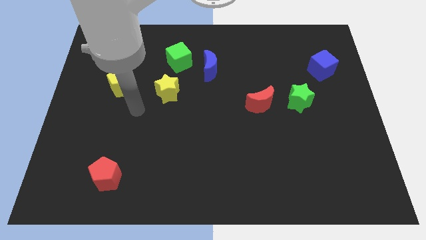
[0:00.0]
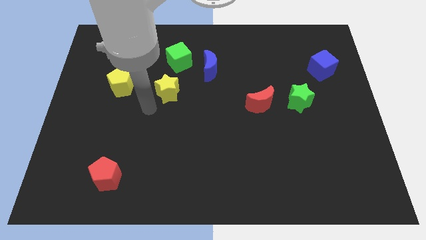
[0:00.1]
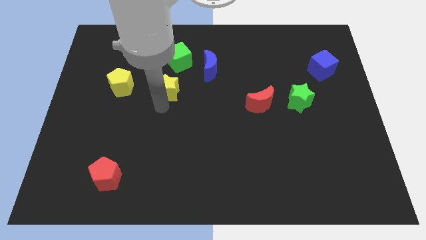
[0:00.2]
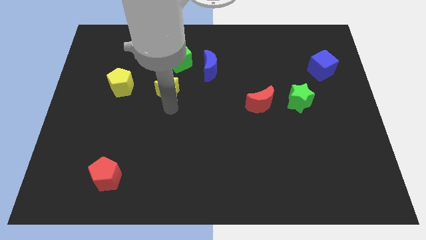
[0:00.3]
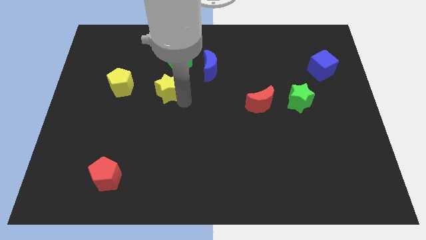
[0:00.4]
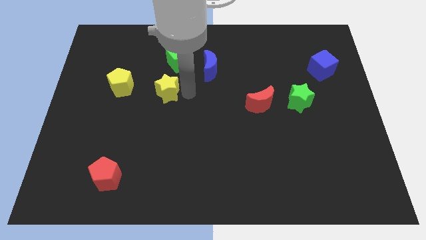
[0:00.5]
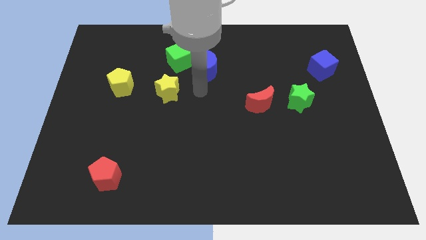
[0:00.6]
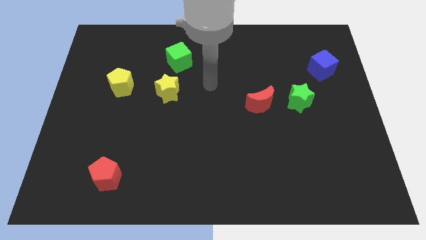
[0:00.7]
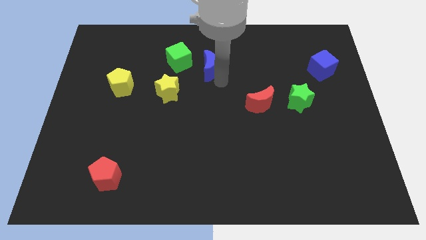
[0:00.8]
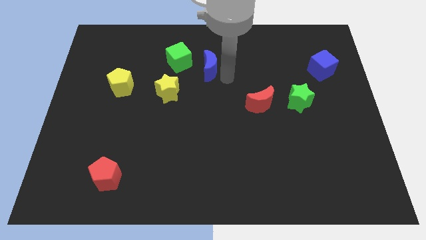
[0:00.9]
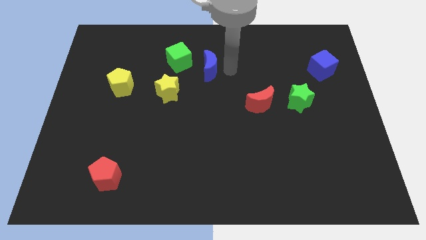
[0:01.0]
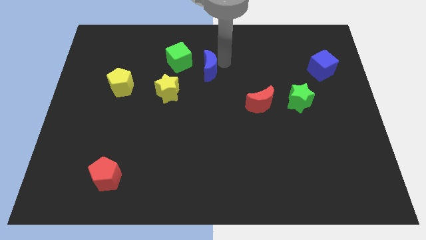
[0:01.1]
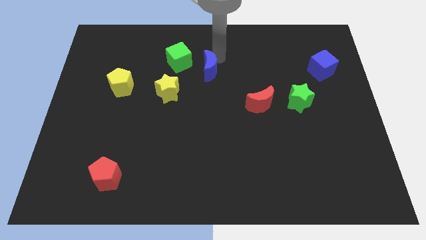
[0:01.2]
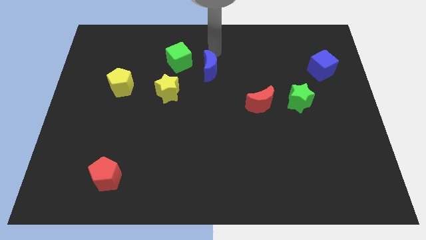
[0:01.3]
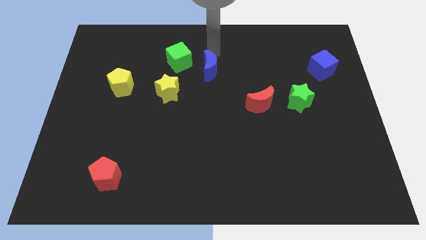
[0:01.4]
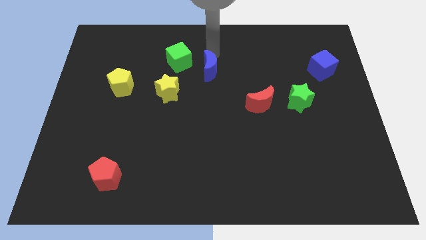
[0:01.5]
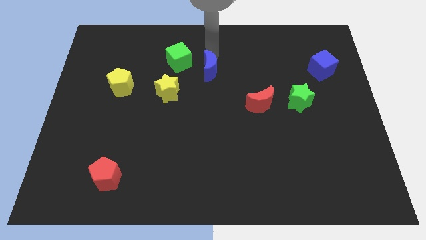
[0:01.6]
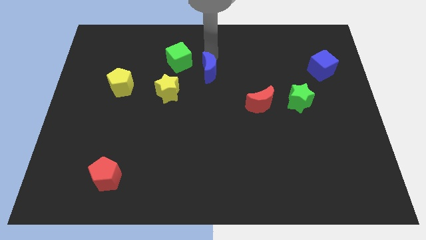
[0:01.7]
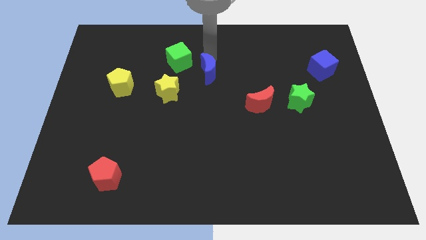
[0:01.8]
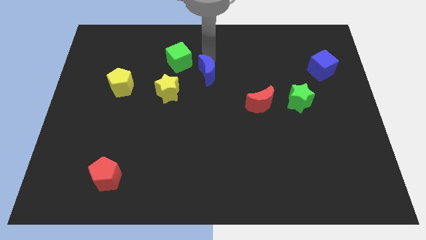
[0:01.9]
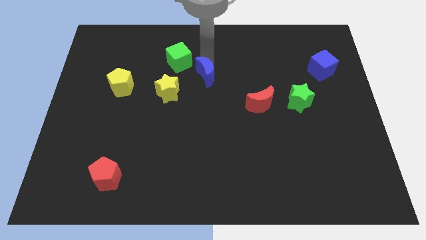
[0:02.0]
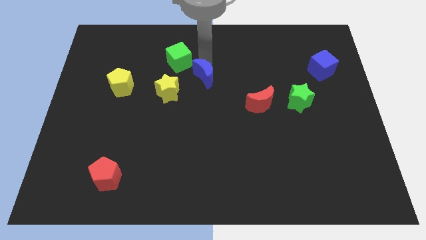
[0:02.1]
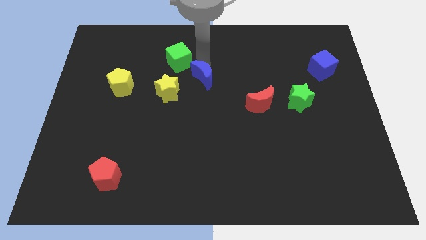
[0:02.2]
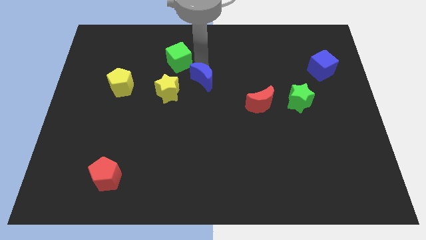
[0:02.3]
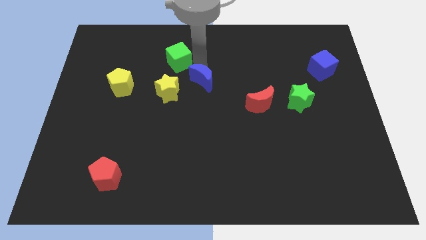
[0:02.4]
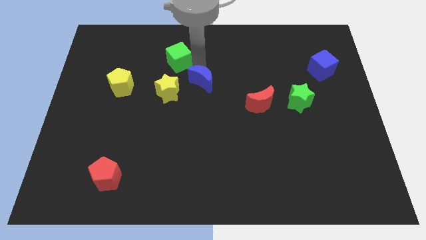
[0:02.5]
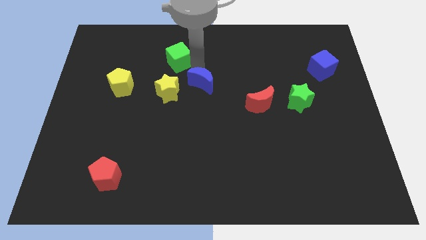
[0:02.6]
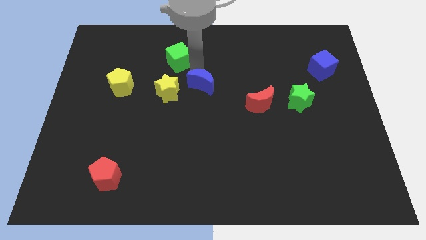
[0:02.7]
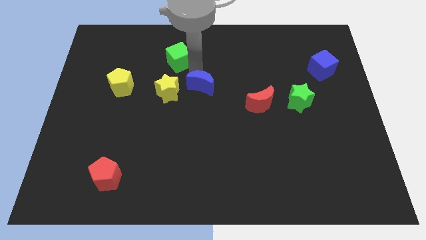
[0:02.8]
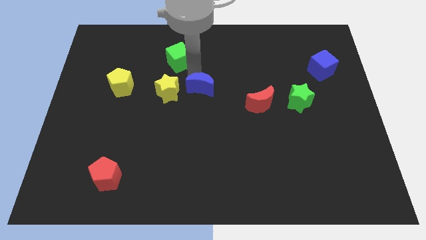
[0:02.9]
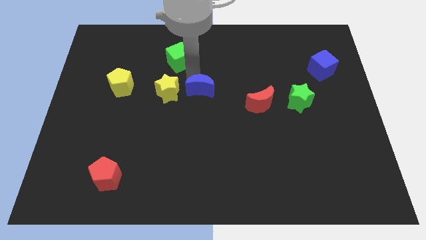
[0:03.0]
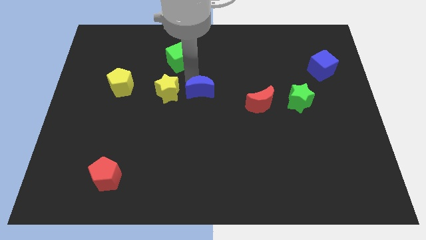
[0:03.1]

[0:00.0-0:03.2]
slightly move the blue moon down

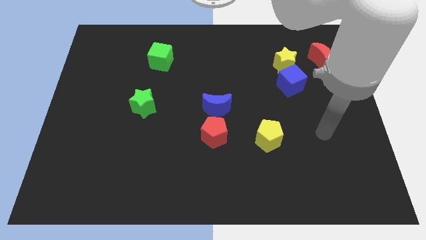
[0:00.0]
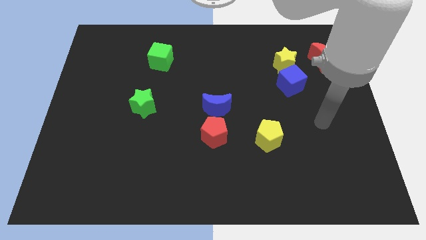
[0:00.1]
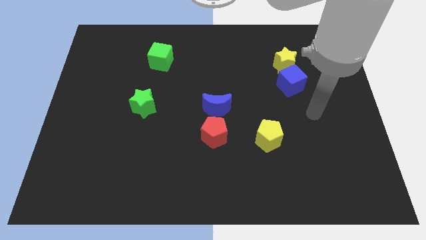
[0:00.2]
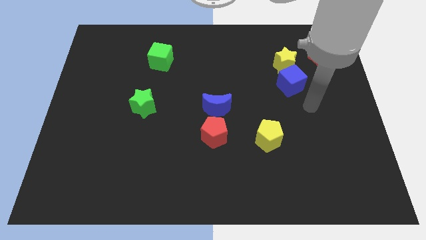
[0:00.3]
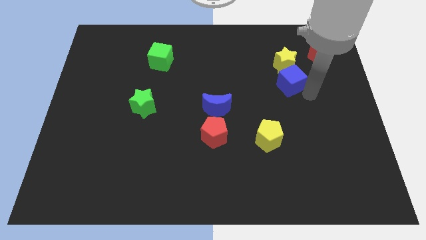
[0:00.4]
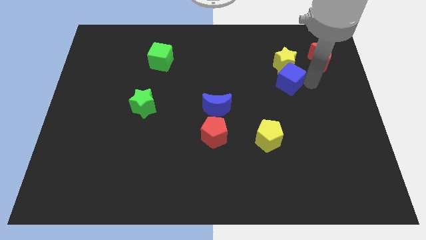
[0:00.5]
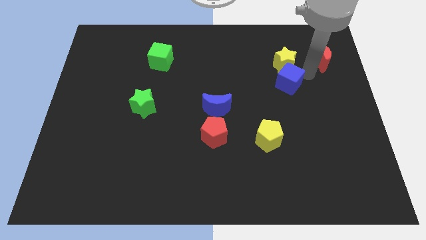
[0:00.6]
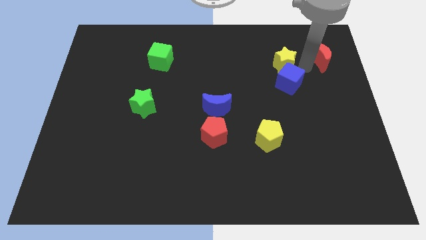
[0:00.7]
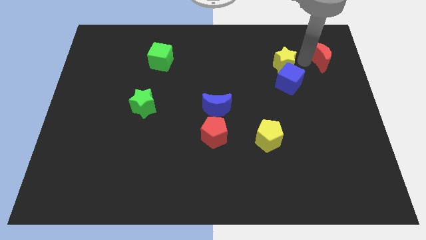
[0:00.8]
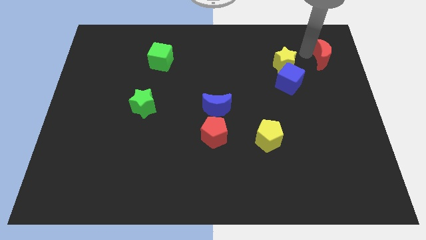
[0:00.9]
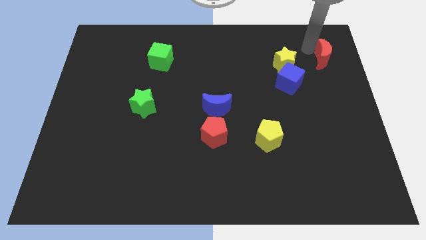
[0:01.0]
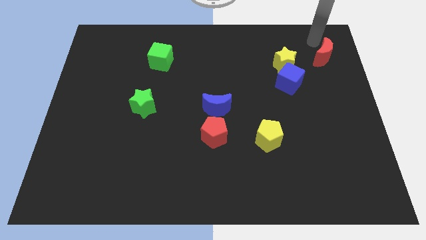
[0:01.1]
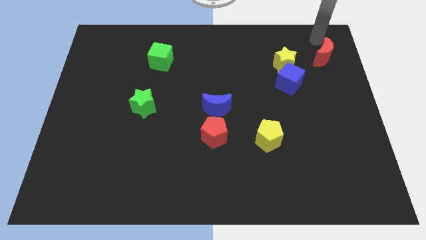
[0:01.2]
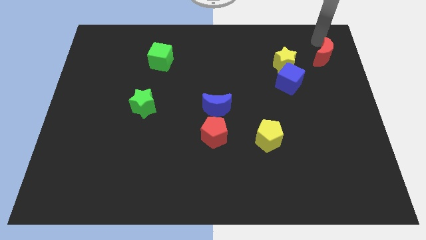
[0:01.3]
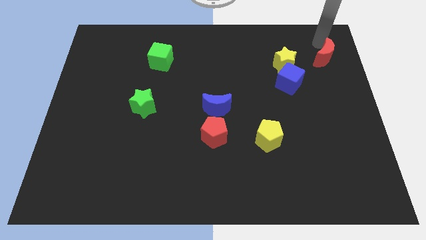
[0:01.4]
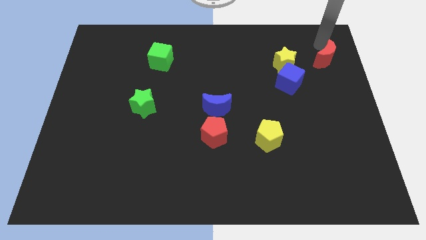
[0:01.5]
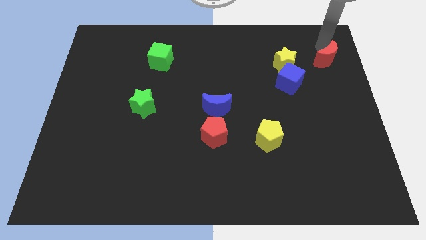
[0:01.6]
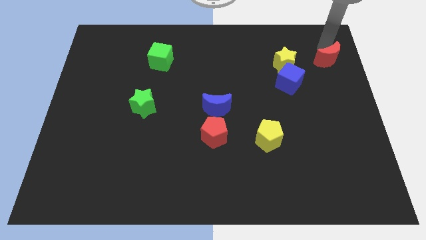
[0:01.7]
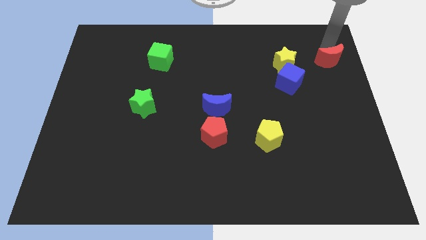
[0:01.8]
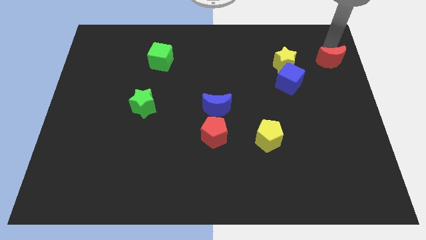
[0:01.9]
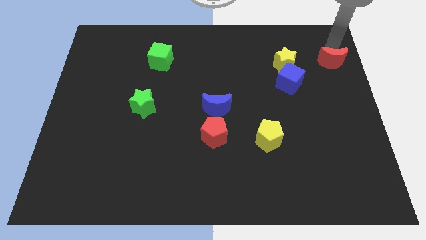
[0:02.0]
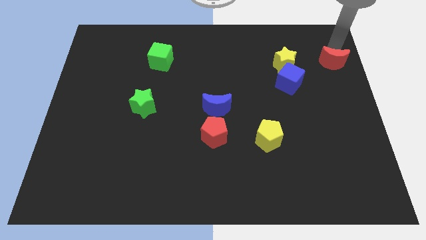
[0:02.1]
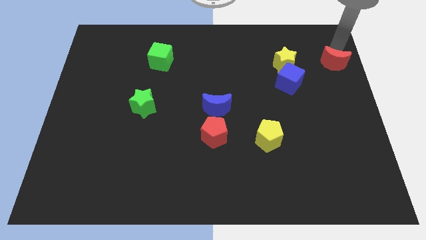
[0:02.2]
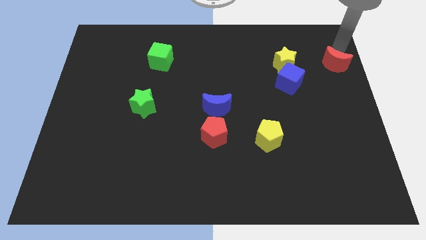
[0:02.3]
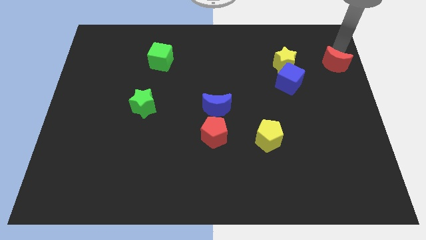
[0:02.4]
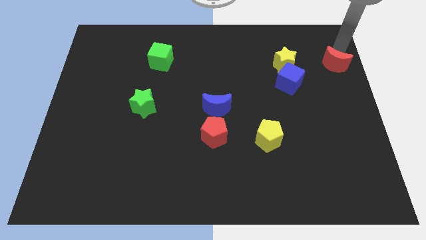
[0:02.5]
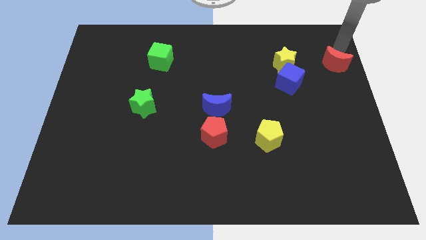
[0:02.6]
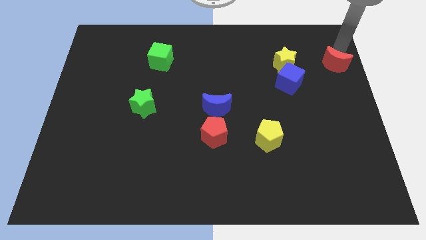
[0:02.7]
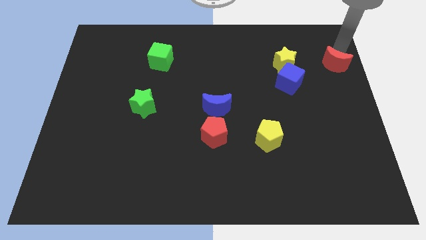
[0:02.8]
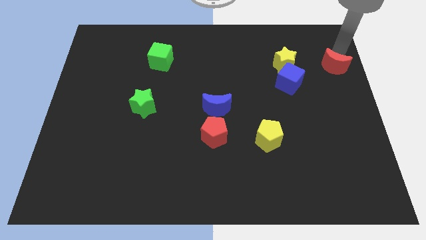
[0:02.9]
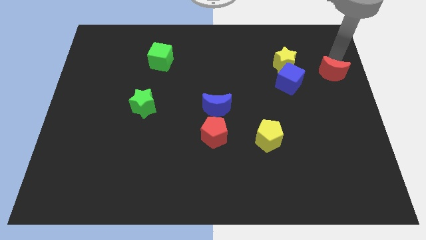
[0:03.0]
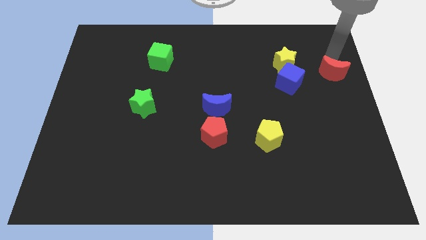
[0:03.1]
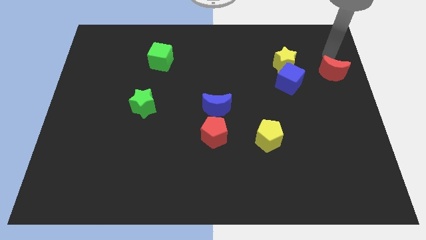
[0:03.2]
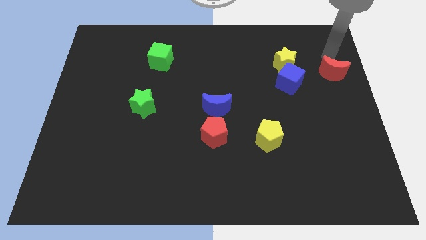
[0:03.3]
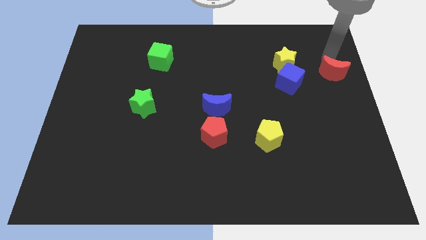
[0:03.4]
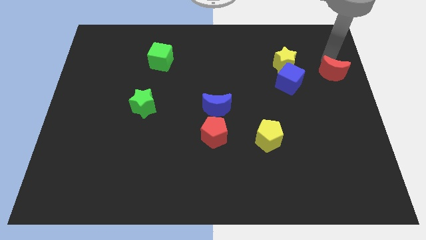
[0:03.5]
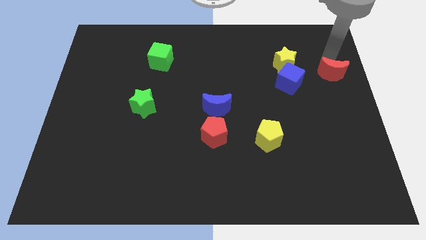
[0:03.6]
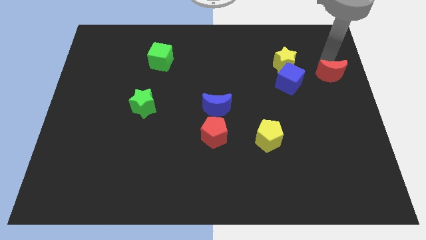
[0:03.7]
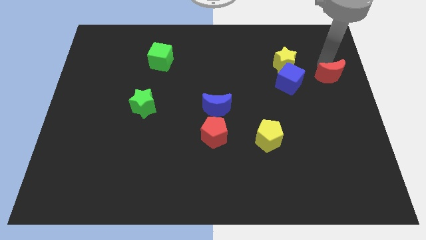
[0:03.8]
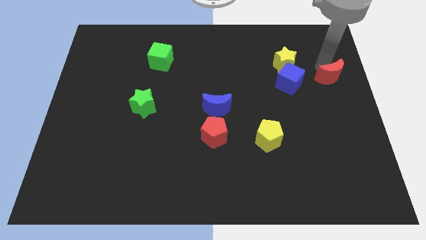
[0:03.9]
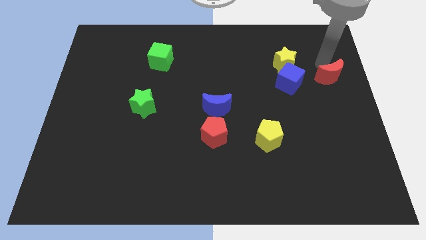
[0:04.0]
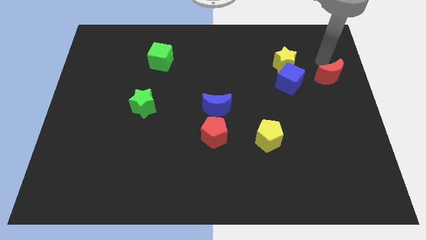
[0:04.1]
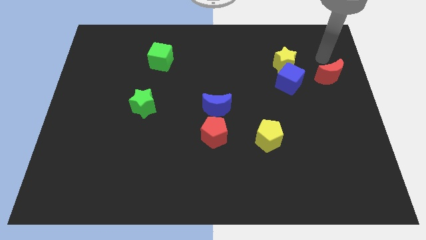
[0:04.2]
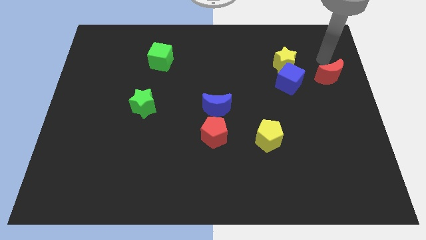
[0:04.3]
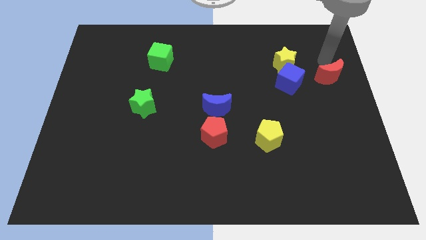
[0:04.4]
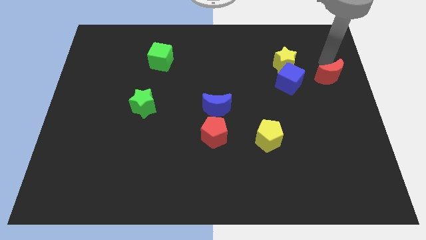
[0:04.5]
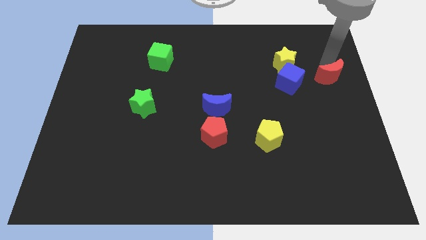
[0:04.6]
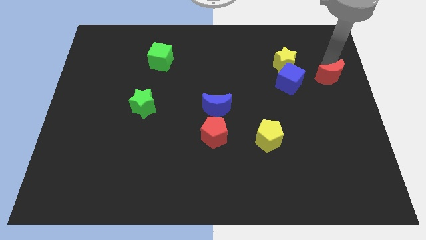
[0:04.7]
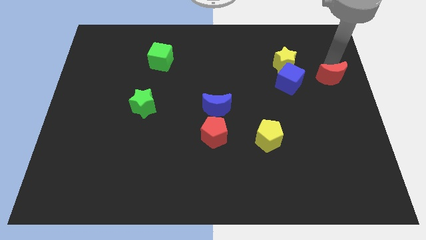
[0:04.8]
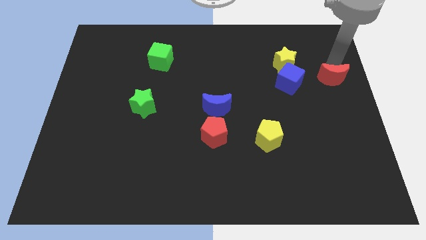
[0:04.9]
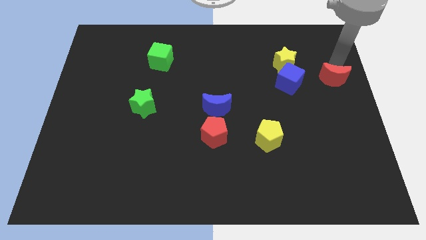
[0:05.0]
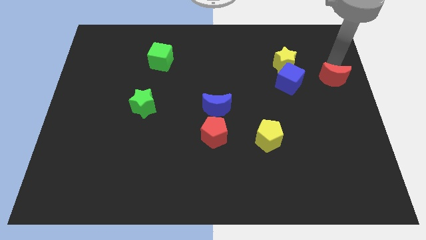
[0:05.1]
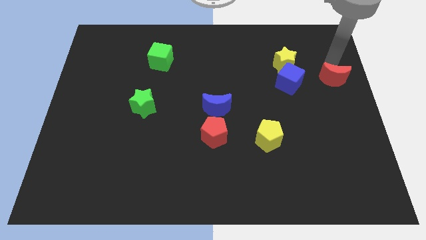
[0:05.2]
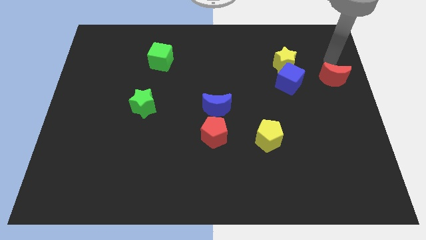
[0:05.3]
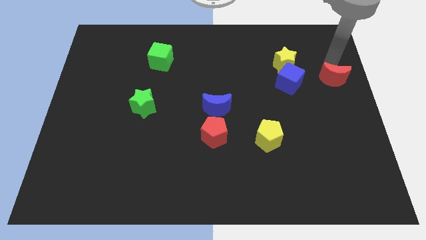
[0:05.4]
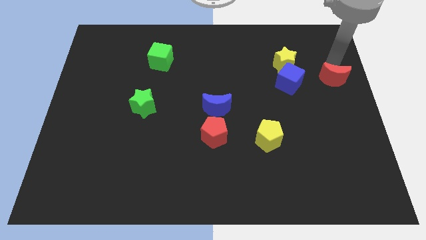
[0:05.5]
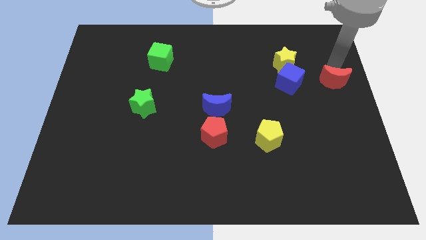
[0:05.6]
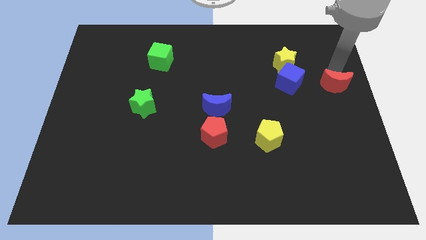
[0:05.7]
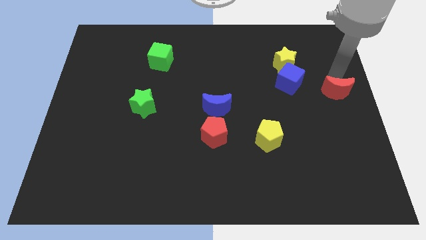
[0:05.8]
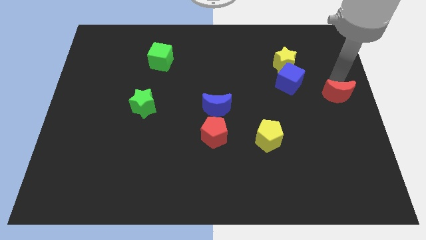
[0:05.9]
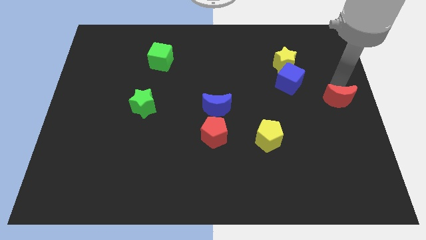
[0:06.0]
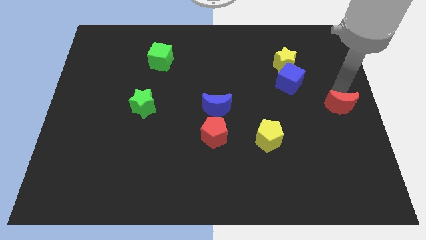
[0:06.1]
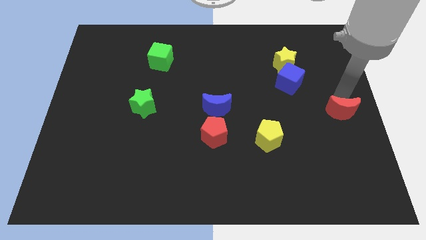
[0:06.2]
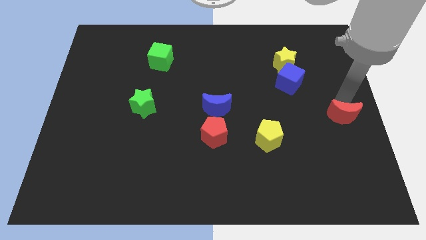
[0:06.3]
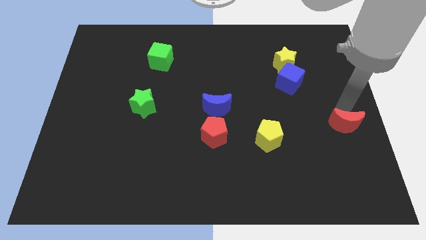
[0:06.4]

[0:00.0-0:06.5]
move the red moon down
